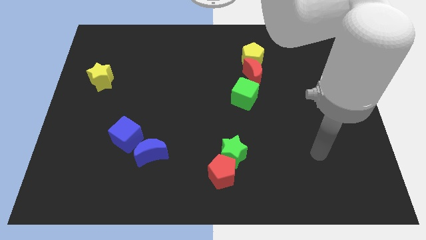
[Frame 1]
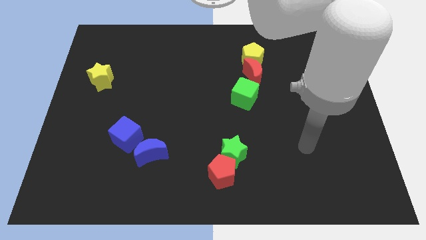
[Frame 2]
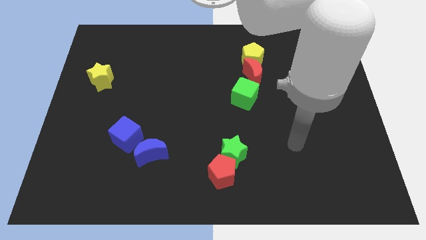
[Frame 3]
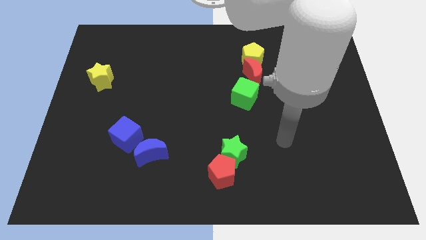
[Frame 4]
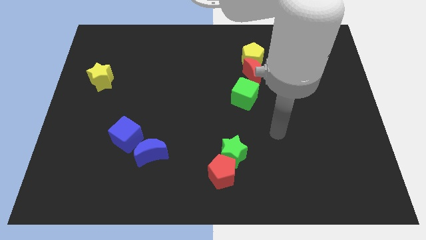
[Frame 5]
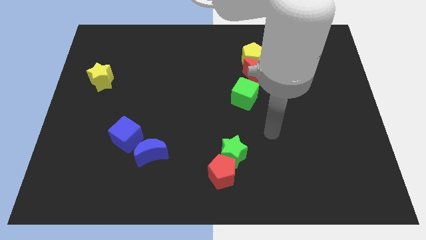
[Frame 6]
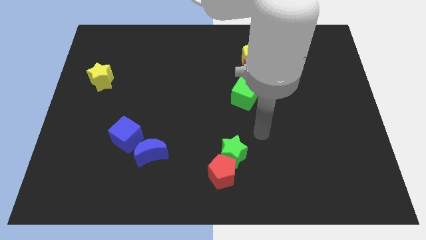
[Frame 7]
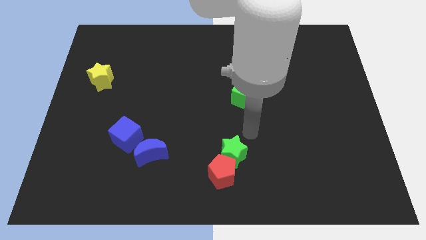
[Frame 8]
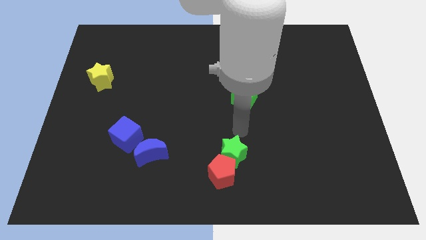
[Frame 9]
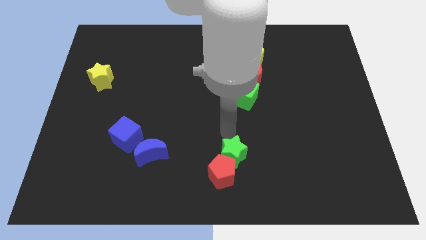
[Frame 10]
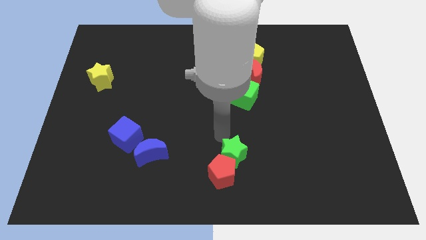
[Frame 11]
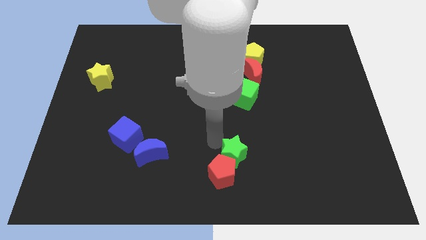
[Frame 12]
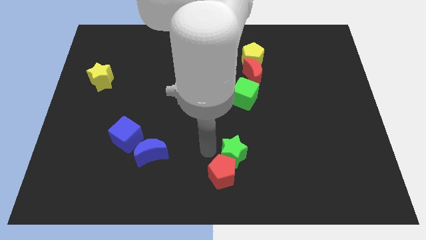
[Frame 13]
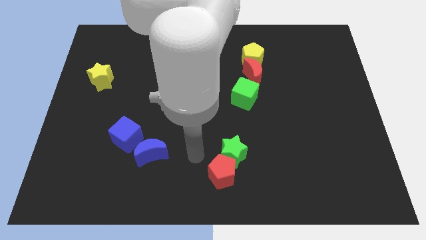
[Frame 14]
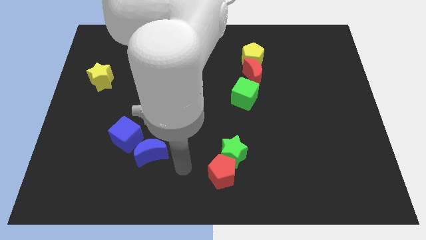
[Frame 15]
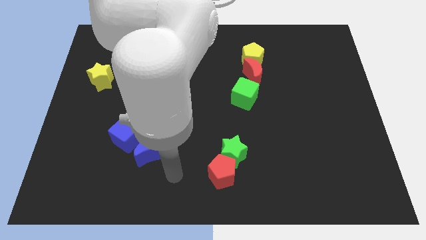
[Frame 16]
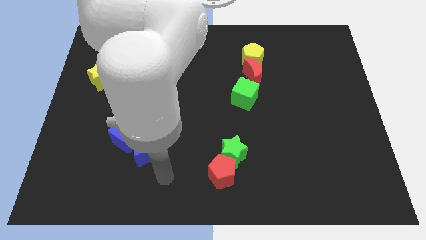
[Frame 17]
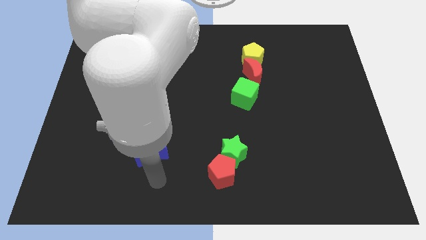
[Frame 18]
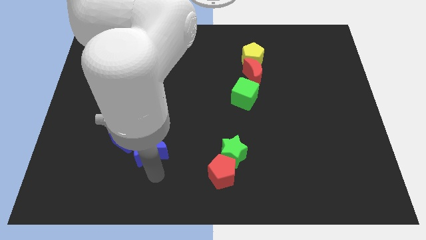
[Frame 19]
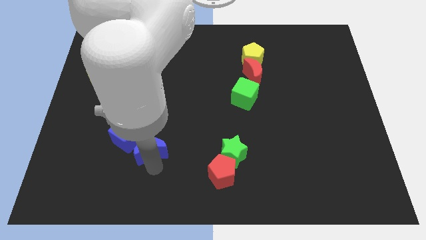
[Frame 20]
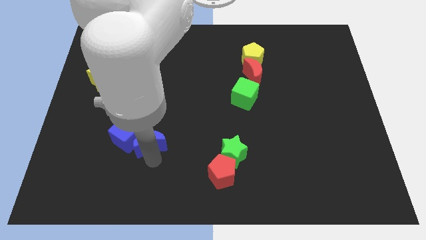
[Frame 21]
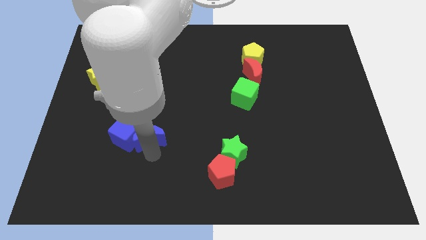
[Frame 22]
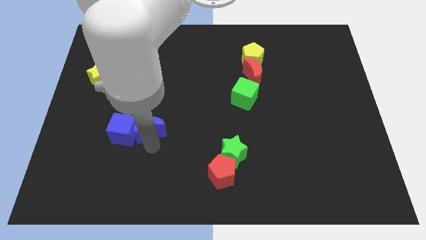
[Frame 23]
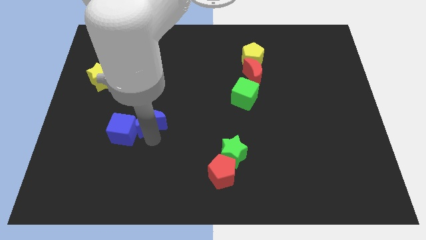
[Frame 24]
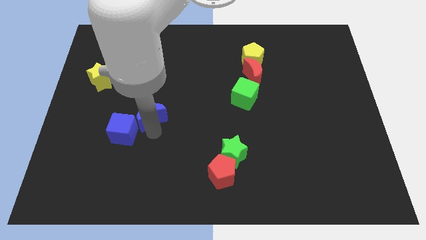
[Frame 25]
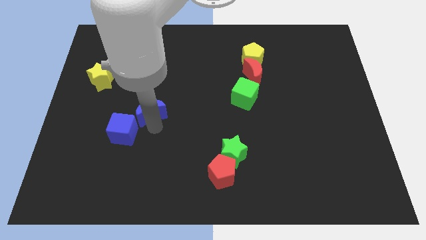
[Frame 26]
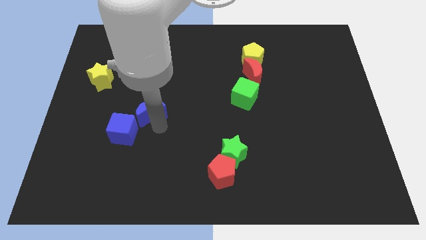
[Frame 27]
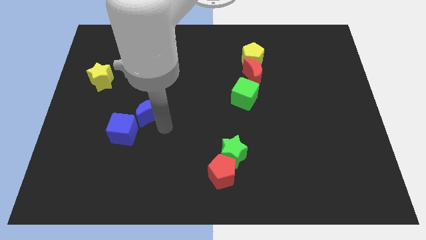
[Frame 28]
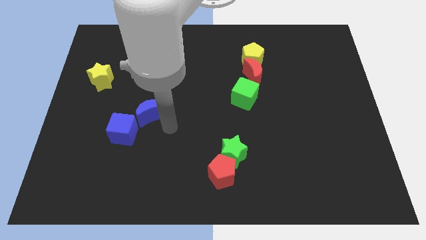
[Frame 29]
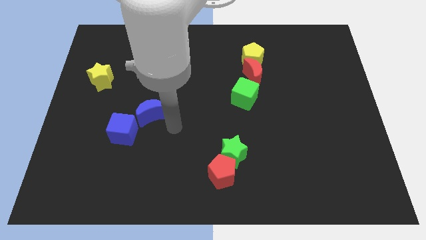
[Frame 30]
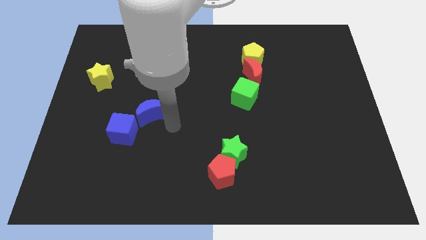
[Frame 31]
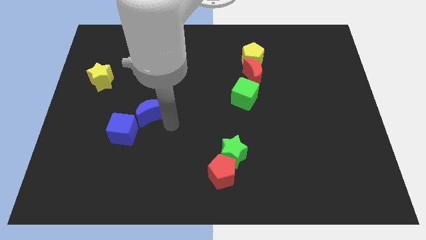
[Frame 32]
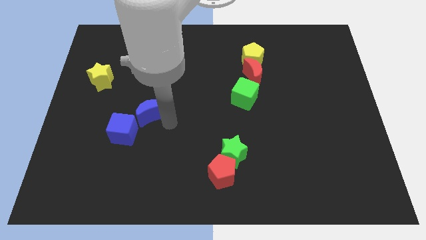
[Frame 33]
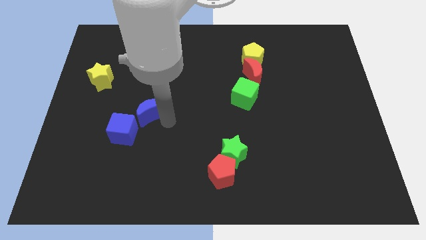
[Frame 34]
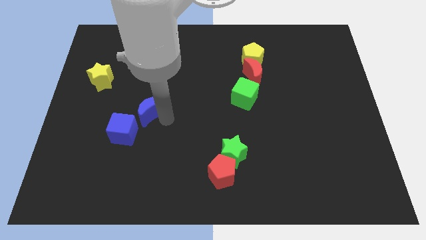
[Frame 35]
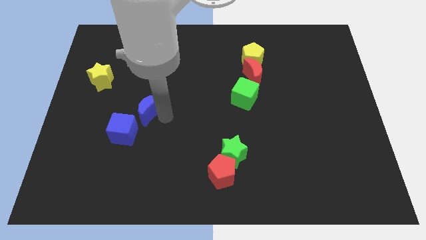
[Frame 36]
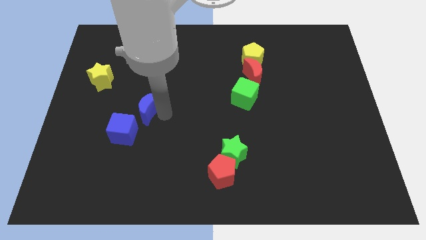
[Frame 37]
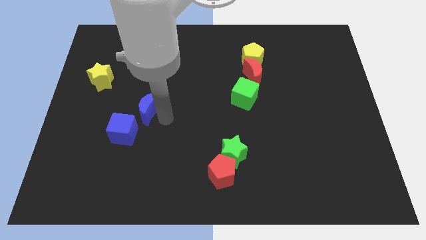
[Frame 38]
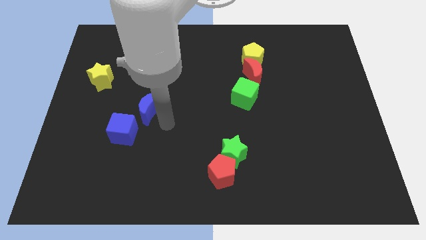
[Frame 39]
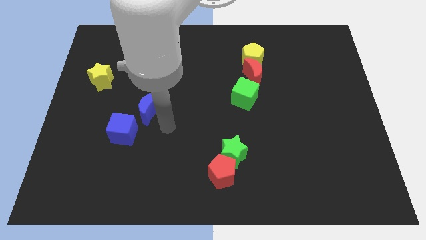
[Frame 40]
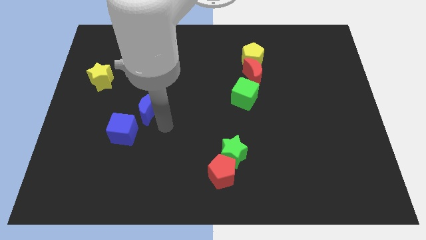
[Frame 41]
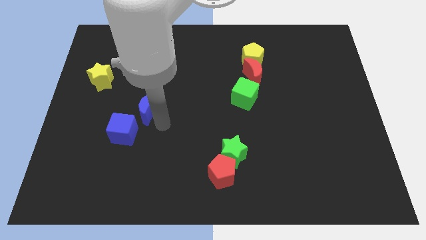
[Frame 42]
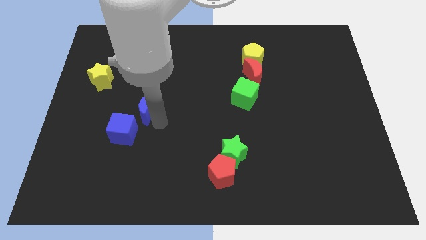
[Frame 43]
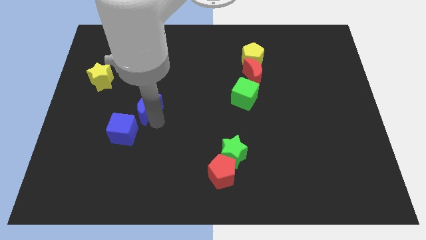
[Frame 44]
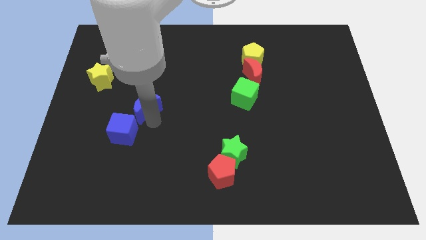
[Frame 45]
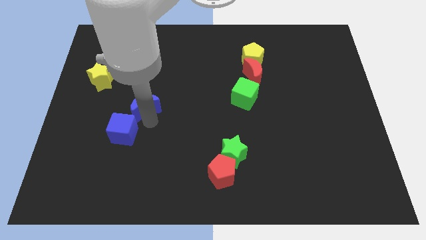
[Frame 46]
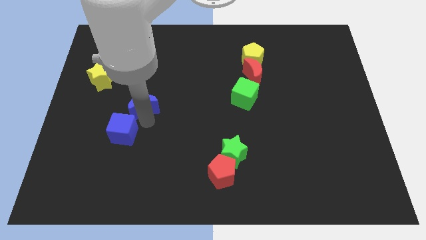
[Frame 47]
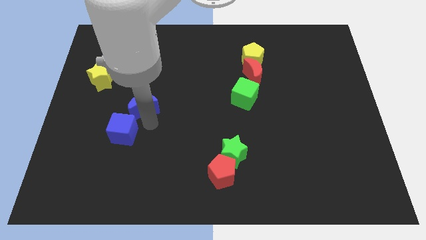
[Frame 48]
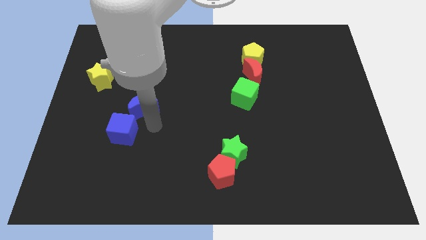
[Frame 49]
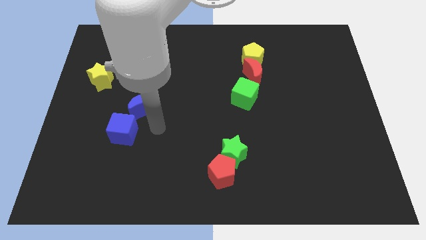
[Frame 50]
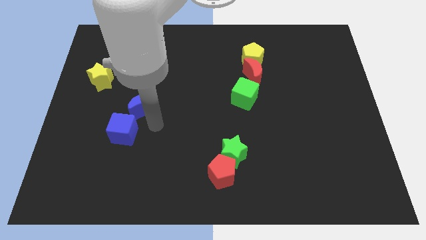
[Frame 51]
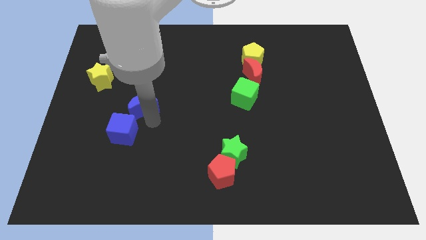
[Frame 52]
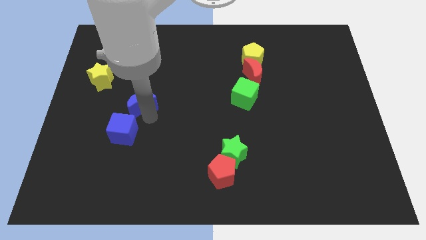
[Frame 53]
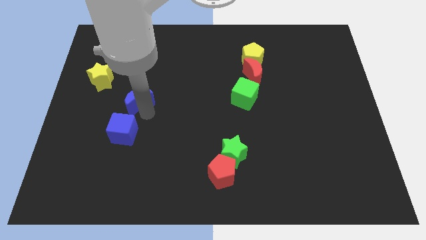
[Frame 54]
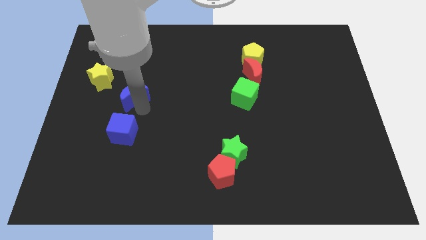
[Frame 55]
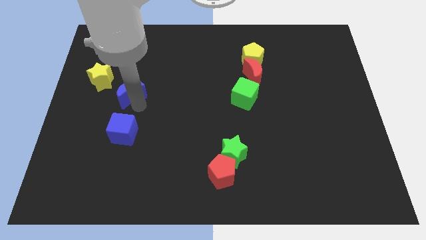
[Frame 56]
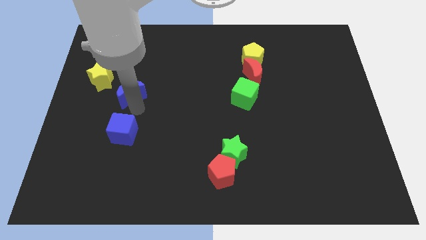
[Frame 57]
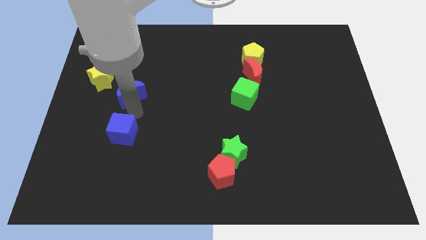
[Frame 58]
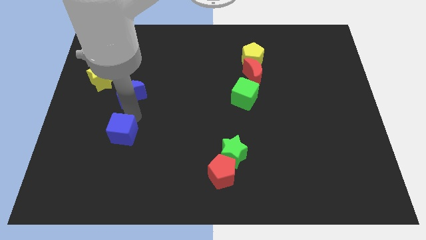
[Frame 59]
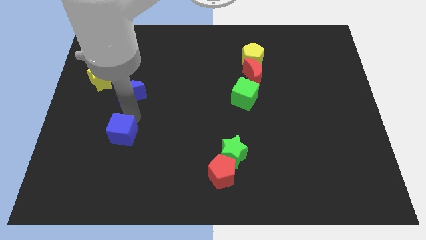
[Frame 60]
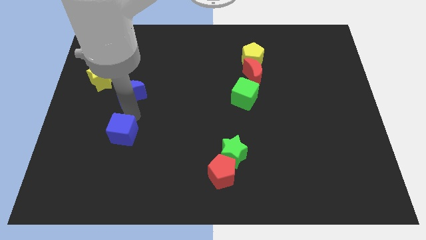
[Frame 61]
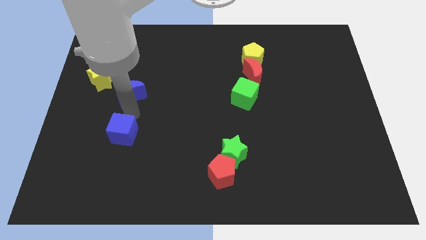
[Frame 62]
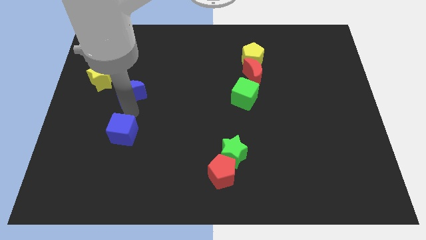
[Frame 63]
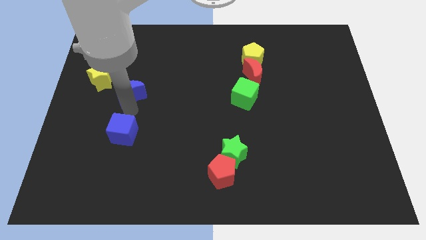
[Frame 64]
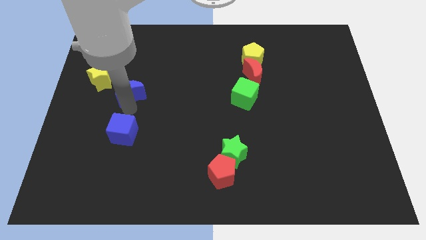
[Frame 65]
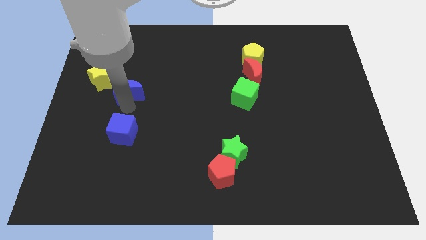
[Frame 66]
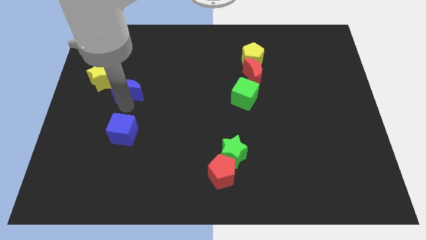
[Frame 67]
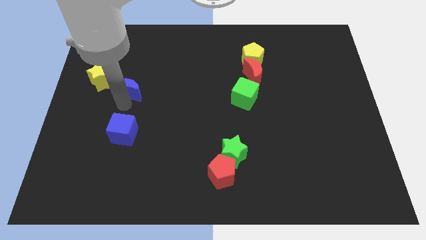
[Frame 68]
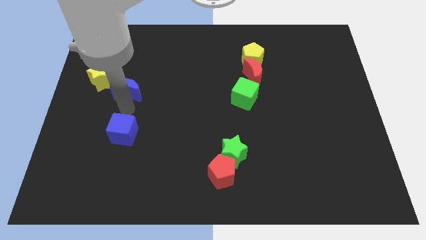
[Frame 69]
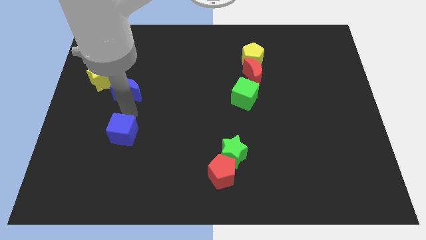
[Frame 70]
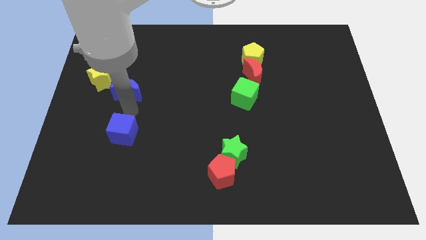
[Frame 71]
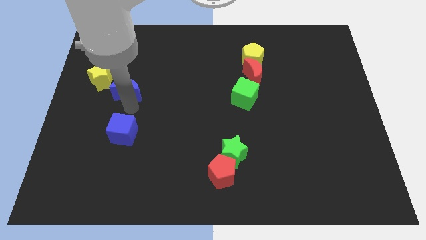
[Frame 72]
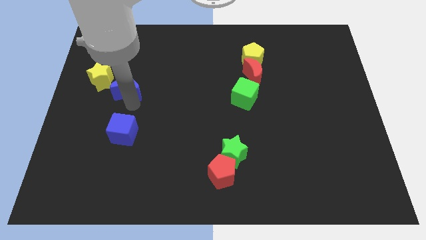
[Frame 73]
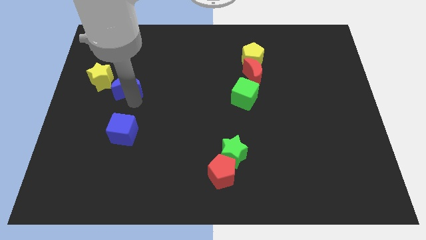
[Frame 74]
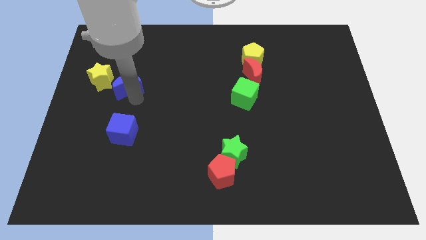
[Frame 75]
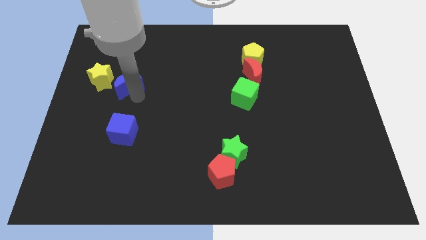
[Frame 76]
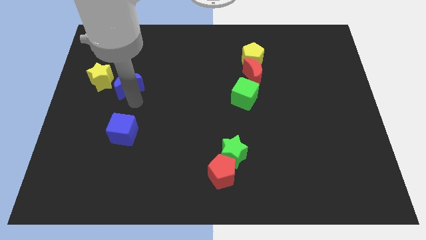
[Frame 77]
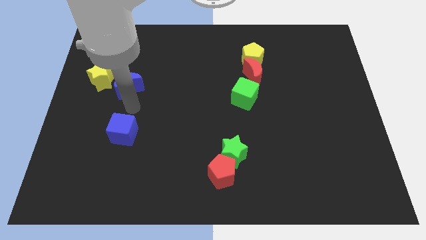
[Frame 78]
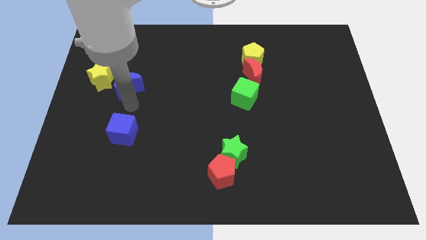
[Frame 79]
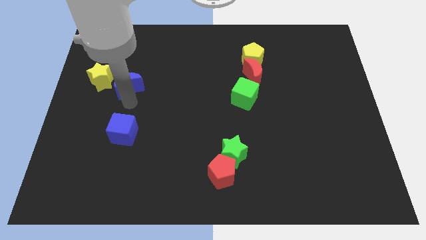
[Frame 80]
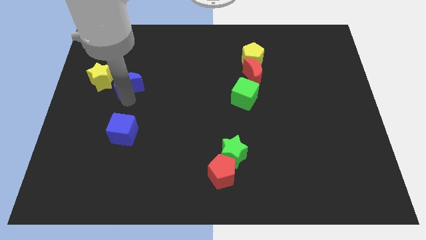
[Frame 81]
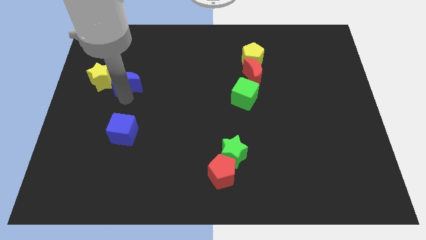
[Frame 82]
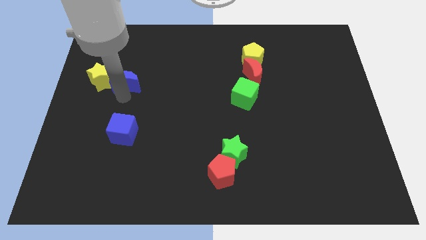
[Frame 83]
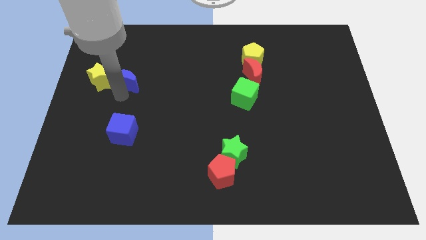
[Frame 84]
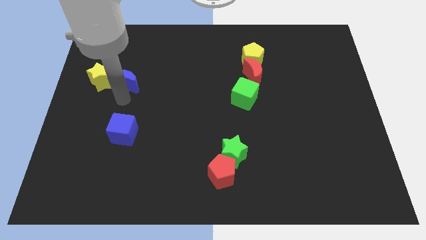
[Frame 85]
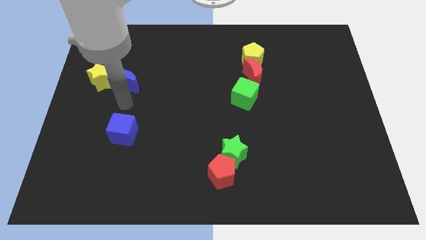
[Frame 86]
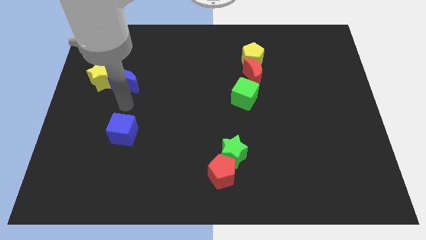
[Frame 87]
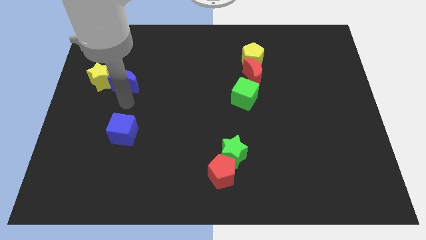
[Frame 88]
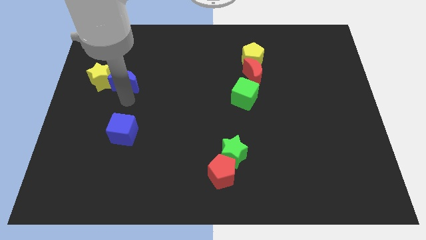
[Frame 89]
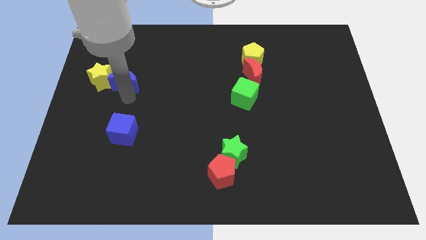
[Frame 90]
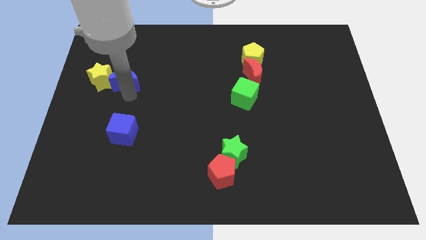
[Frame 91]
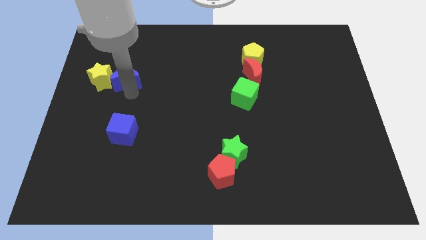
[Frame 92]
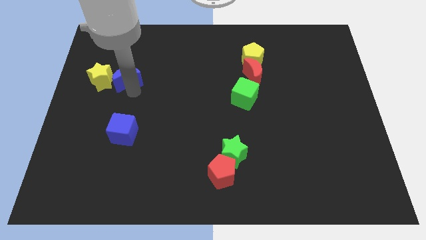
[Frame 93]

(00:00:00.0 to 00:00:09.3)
slide the blue moon to the top right side of the yellow star
